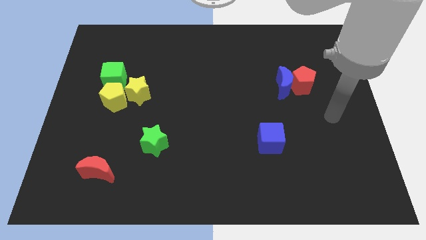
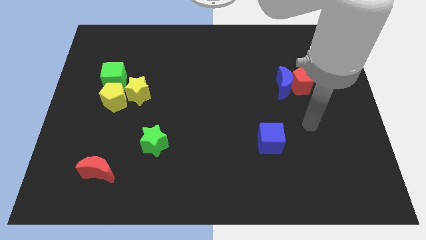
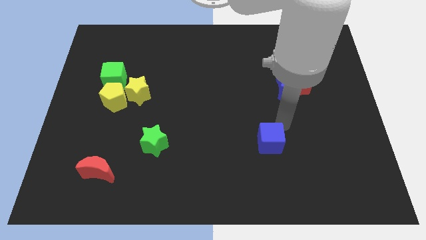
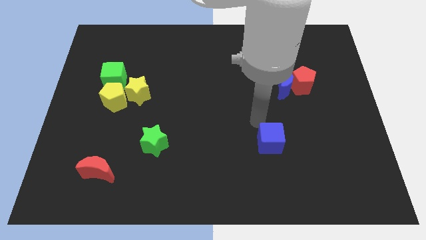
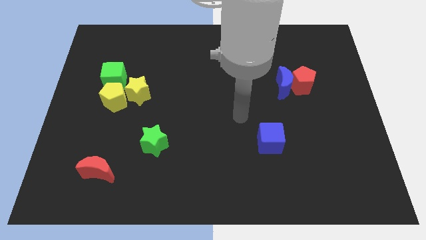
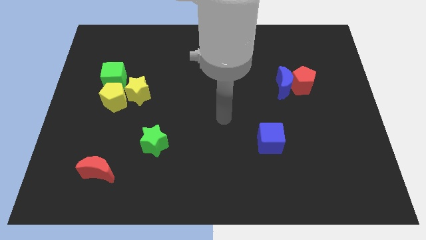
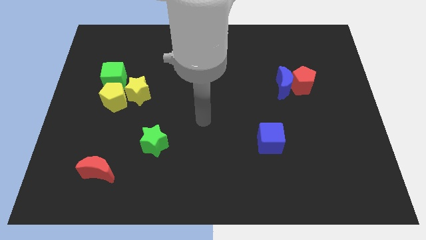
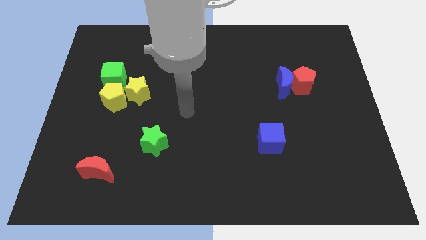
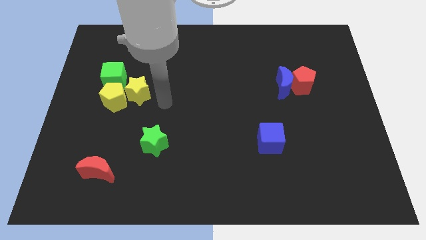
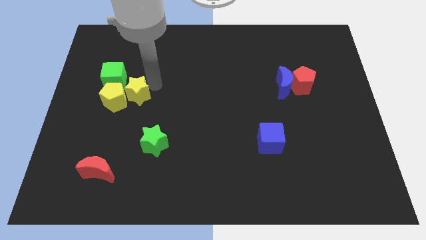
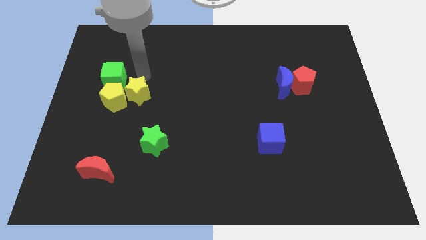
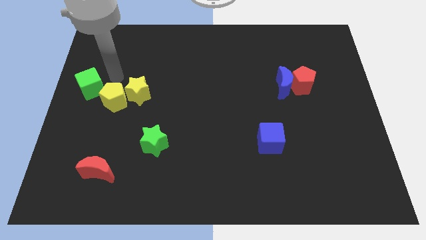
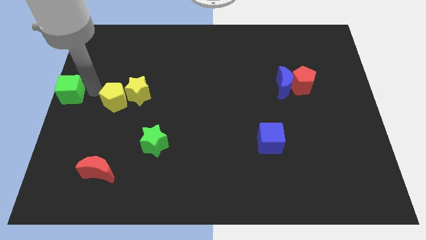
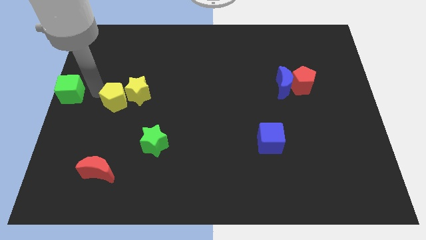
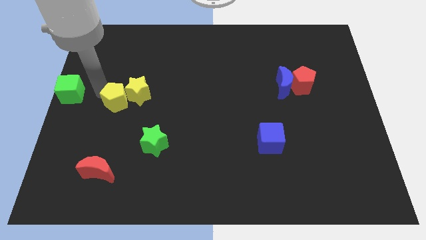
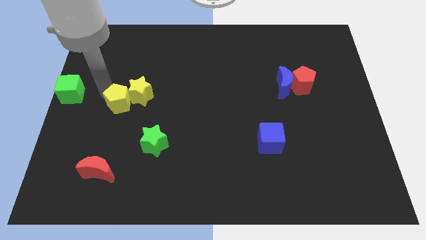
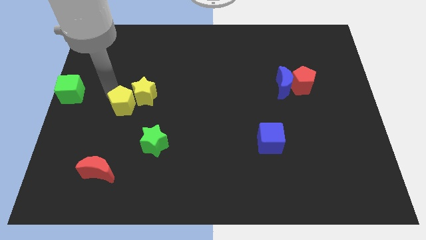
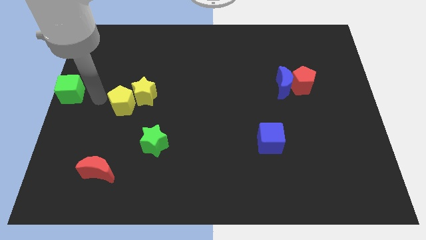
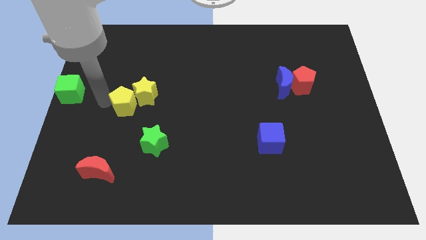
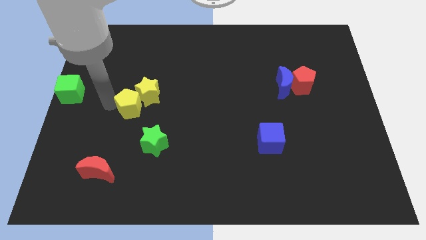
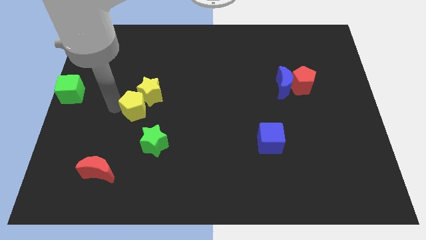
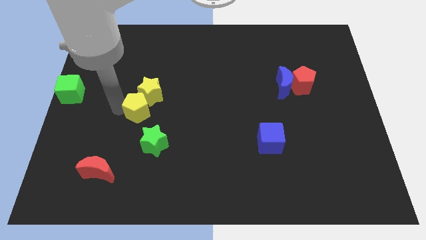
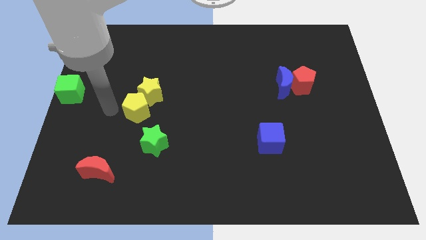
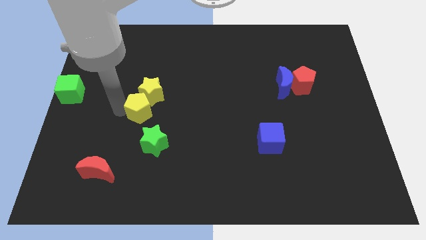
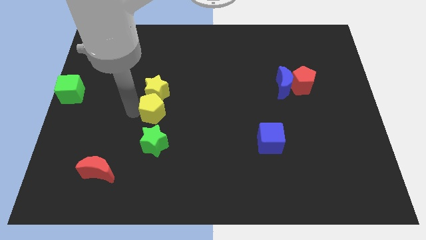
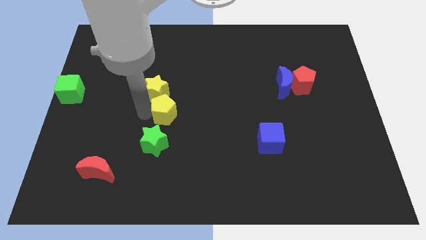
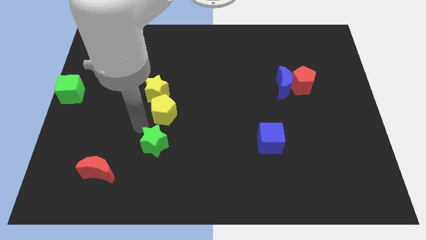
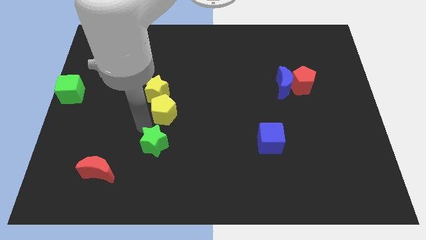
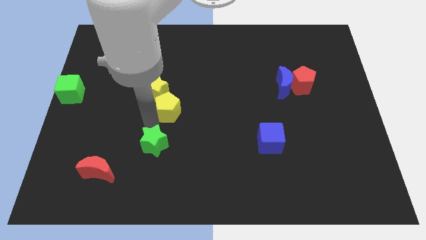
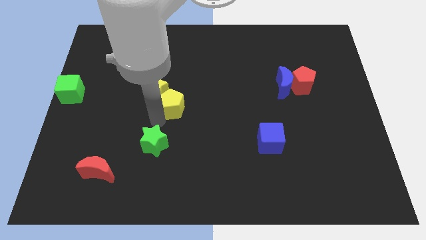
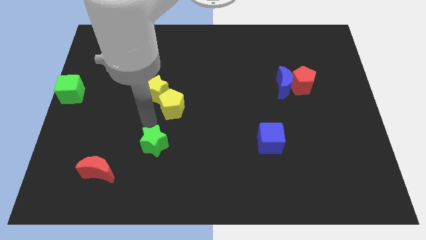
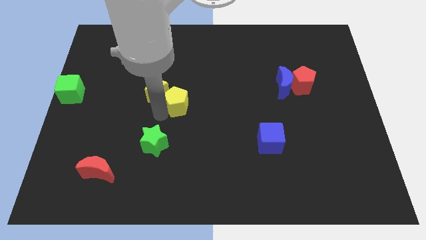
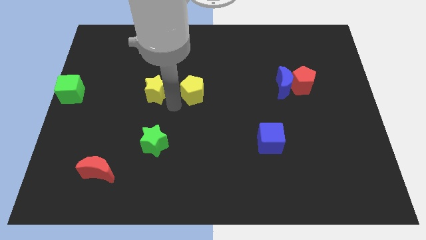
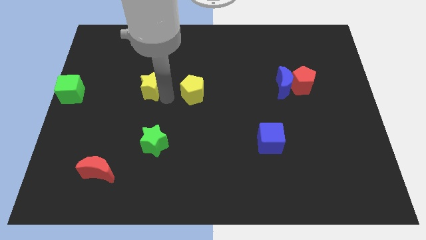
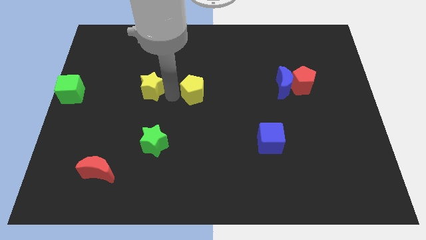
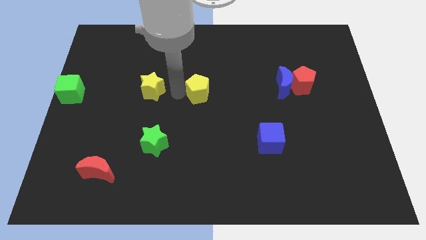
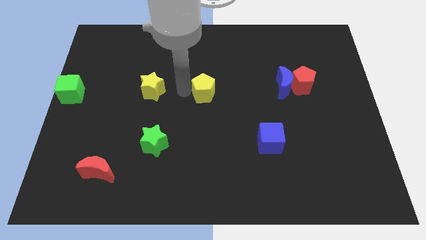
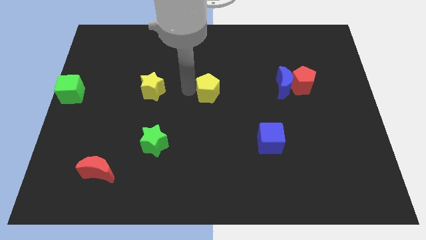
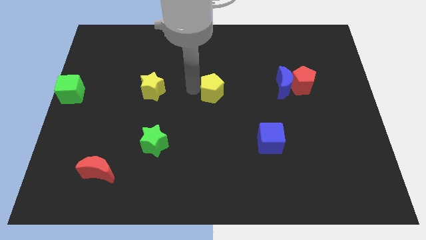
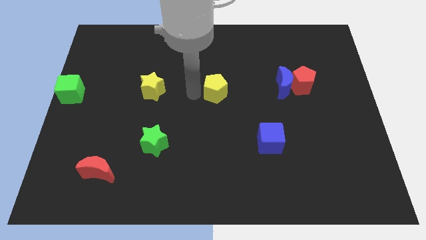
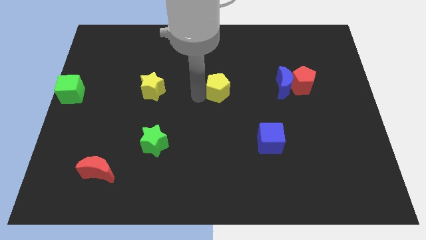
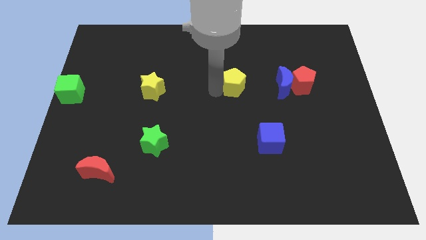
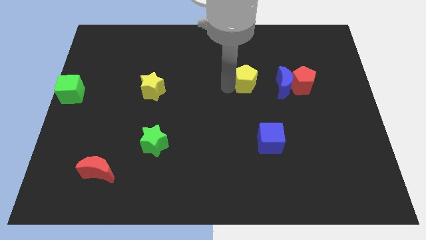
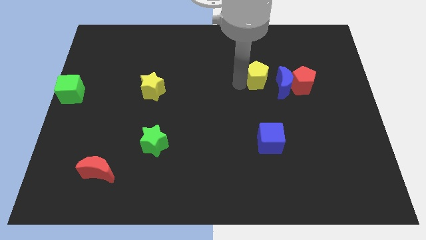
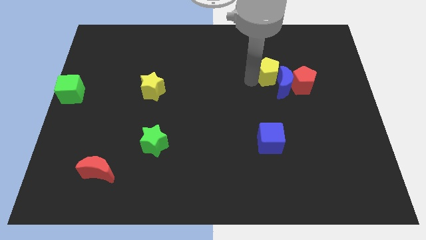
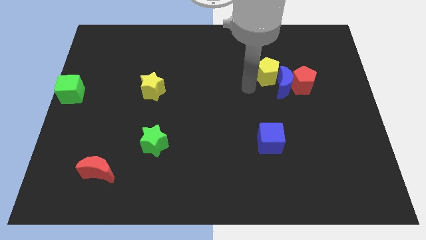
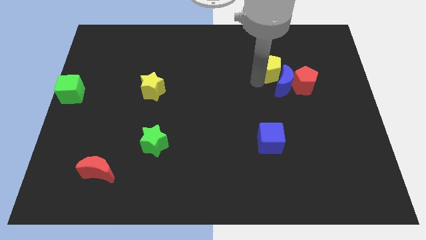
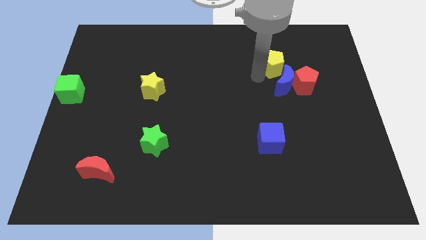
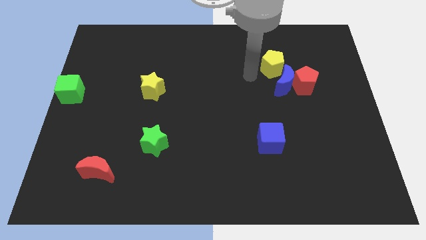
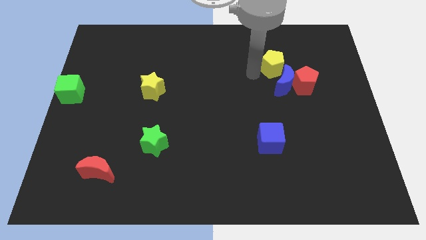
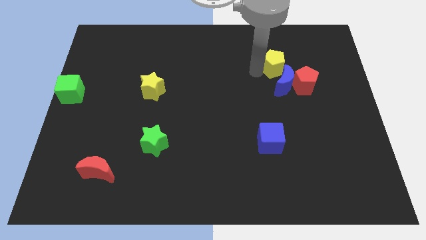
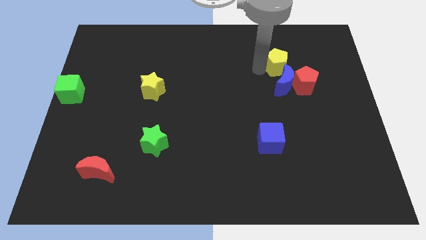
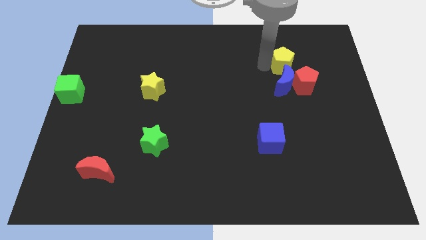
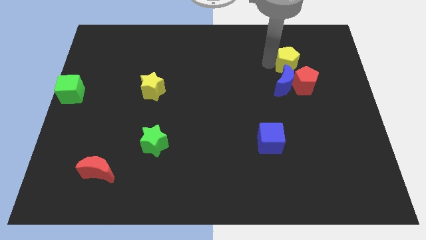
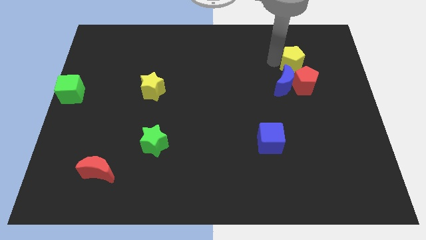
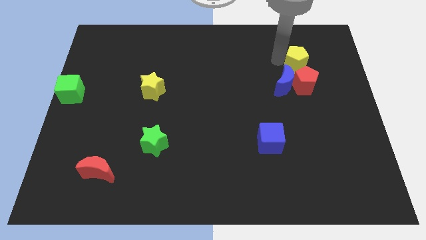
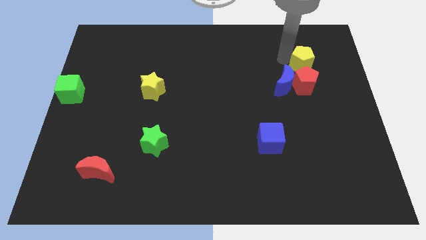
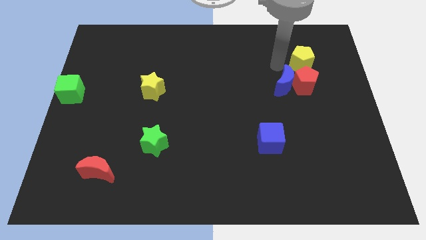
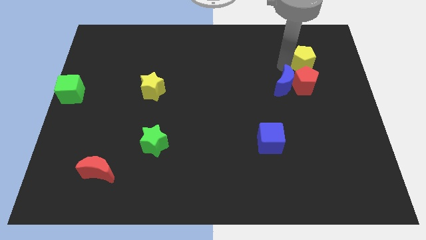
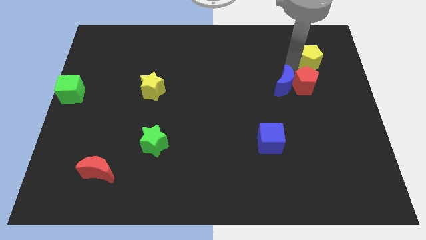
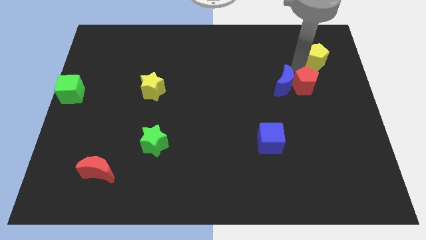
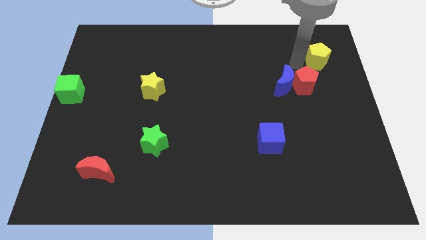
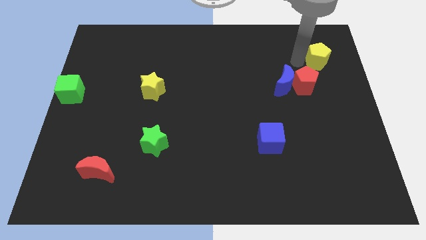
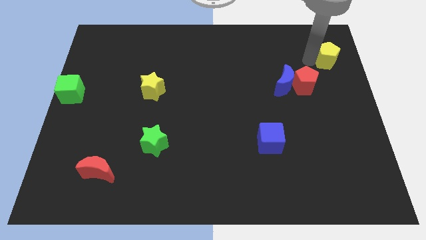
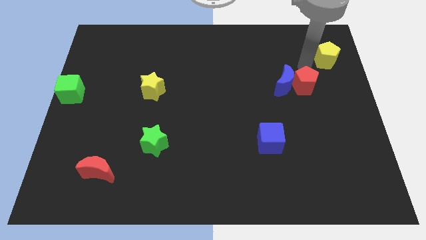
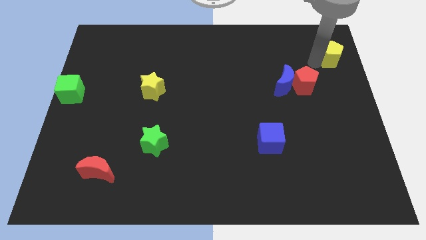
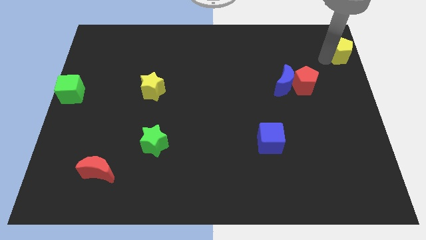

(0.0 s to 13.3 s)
put the yellow pentagon to the top right
